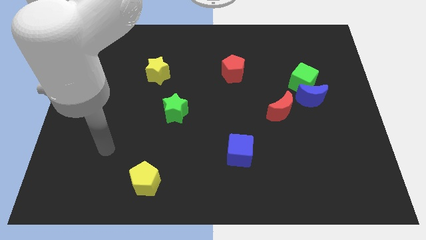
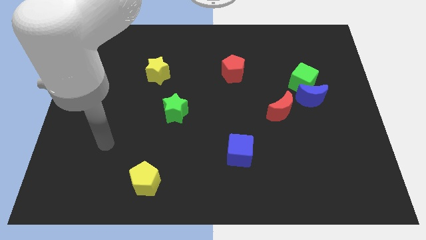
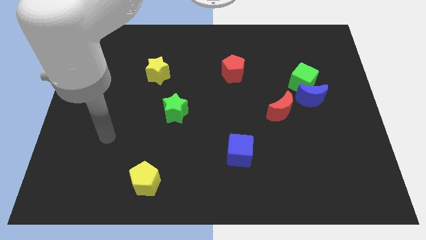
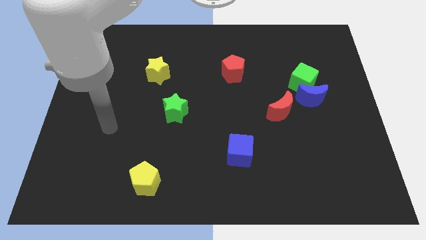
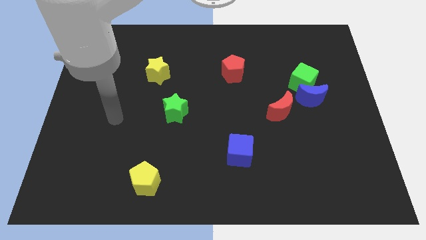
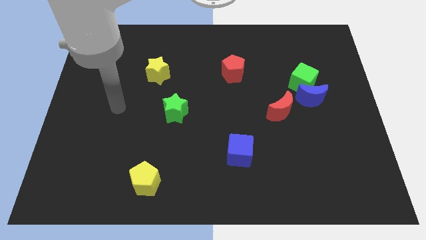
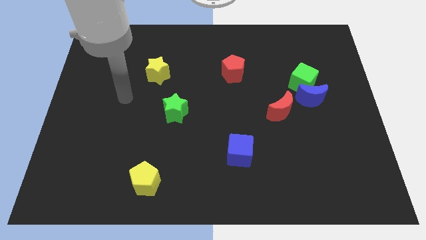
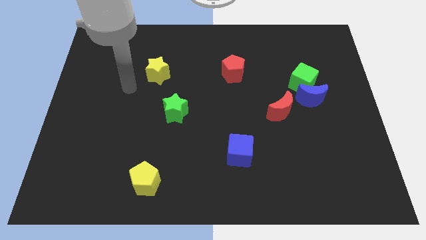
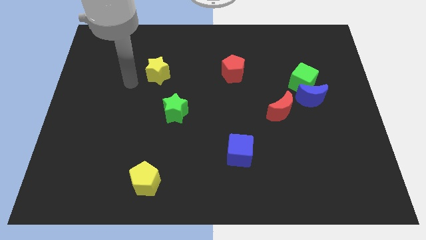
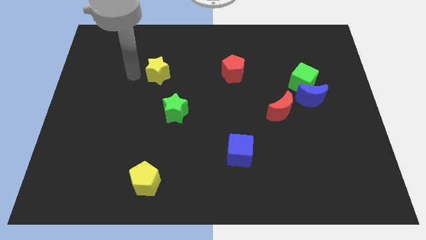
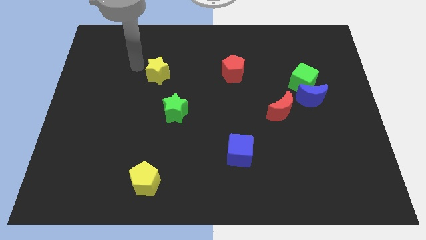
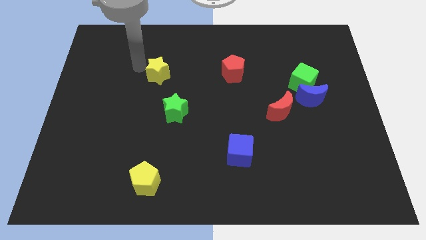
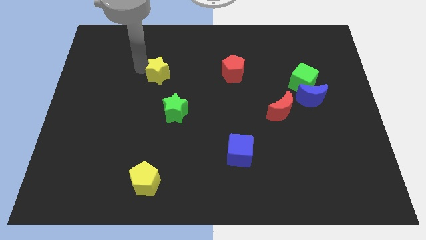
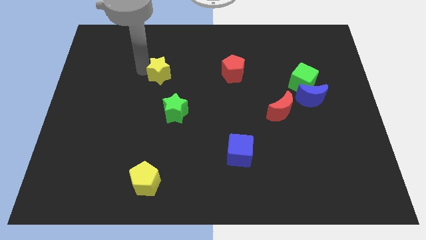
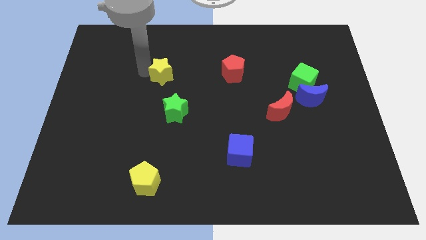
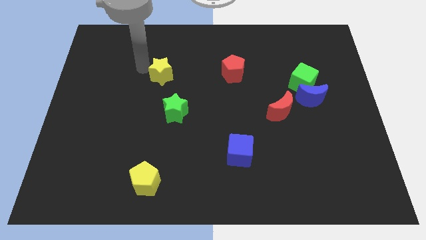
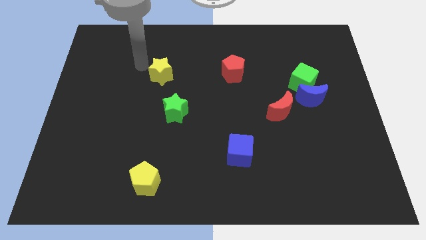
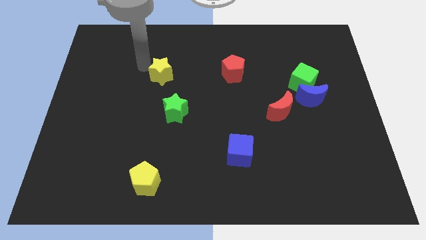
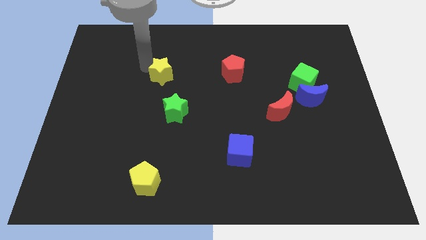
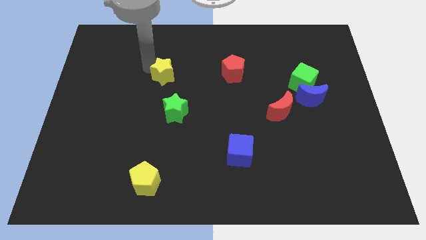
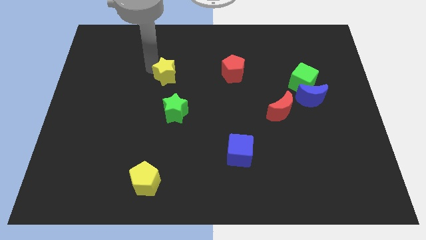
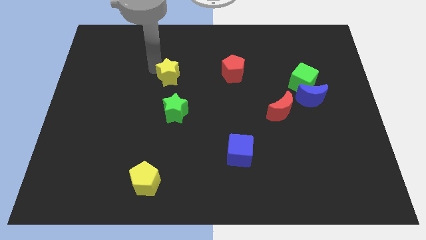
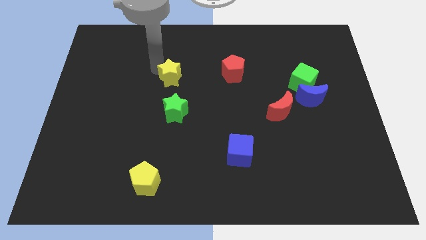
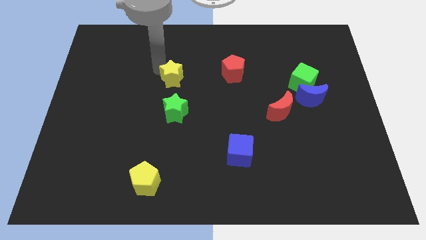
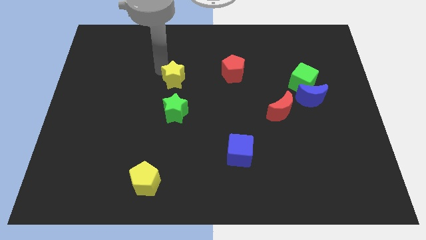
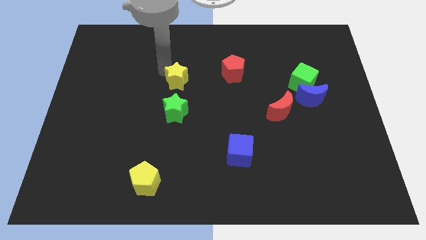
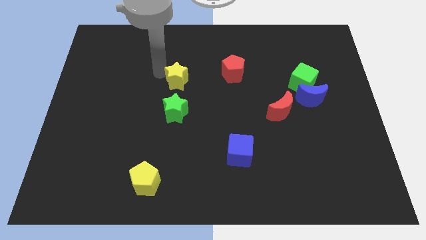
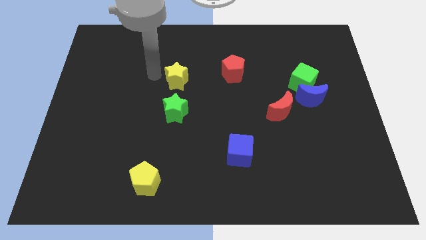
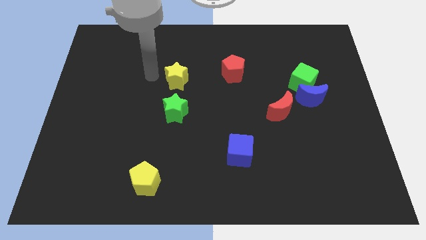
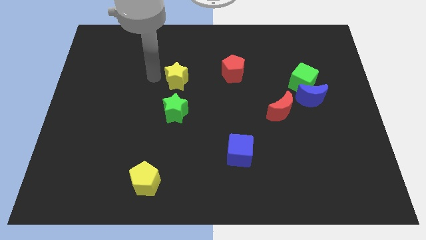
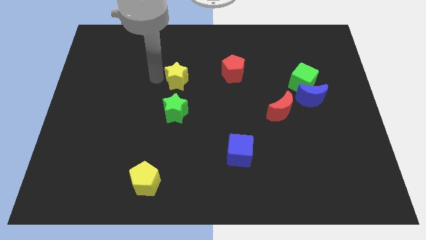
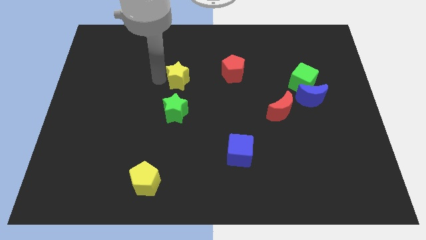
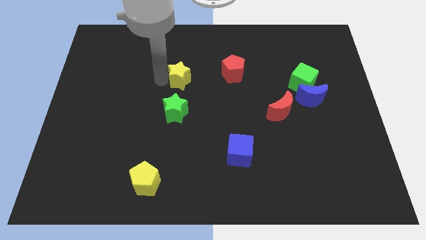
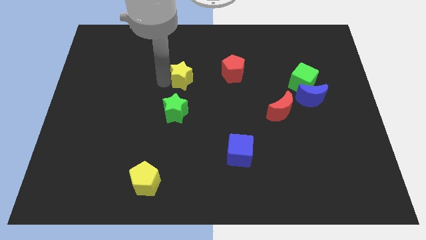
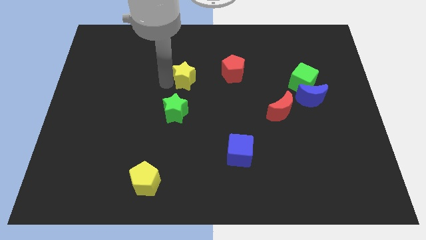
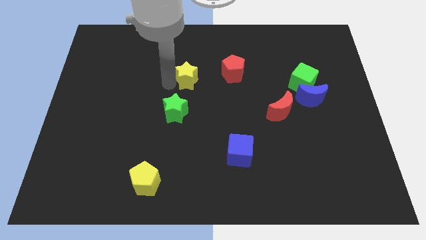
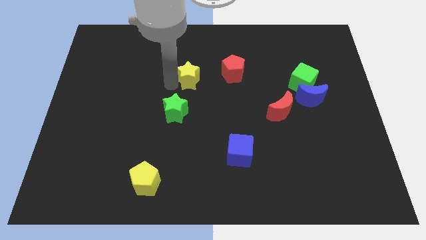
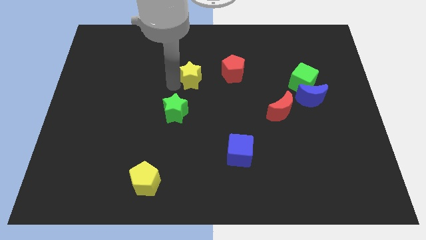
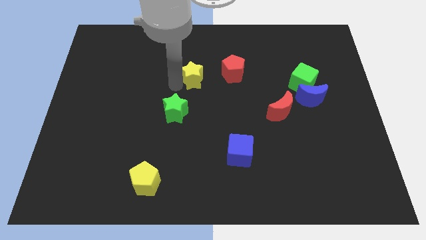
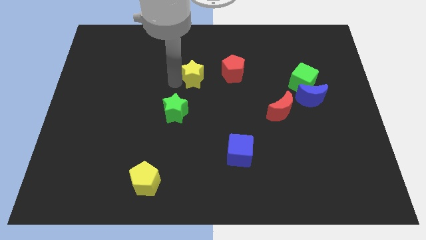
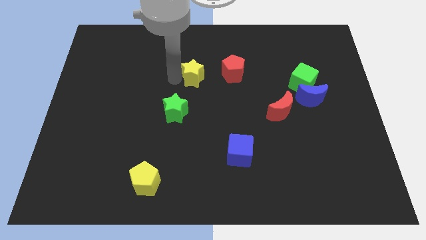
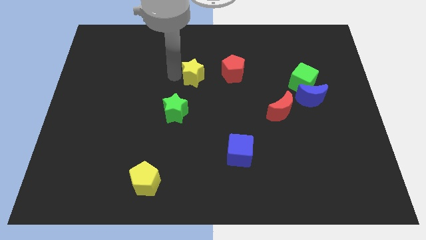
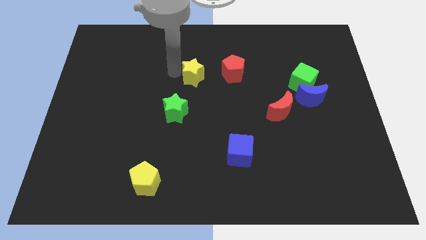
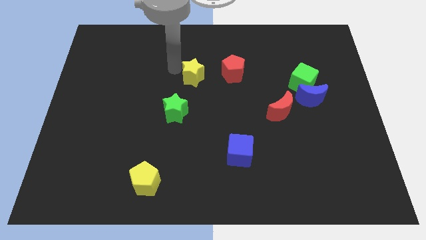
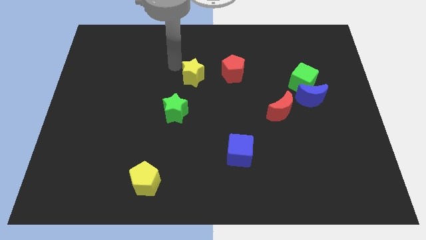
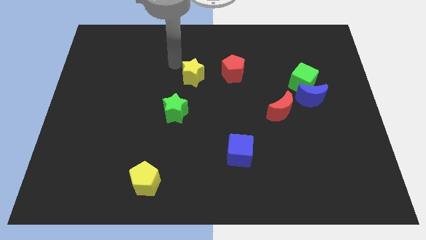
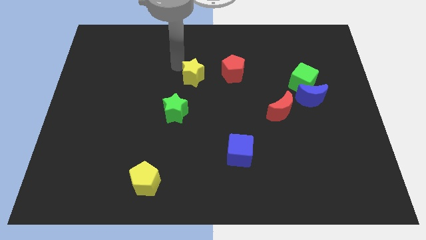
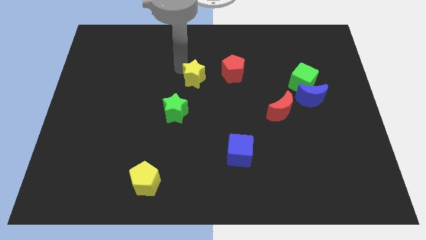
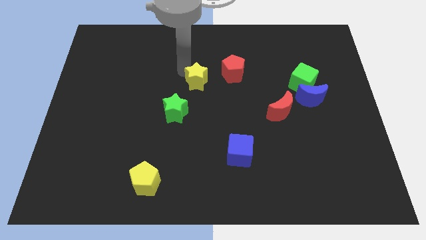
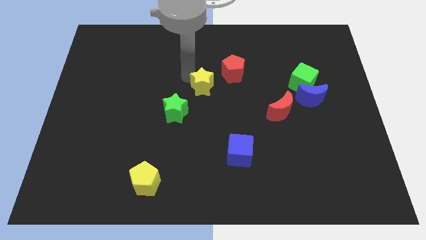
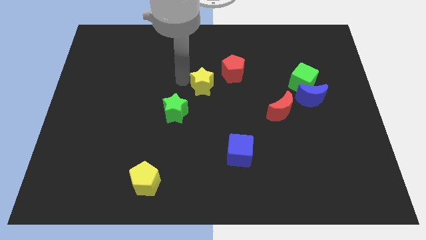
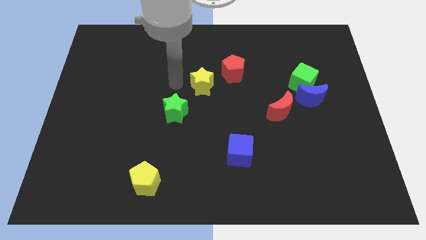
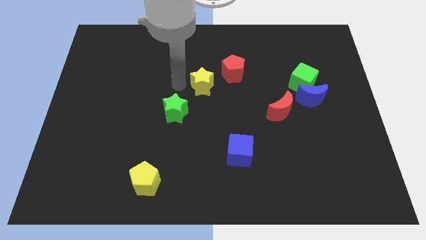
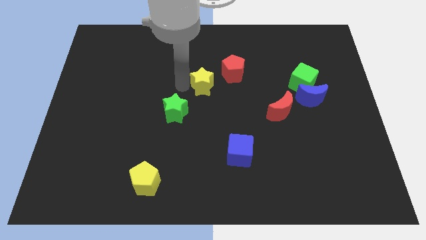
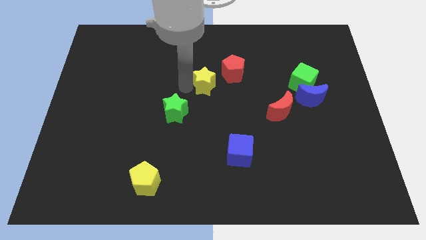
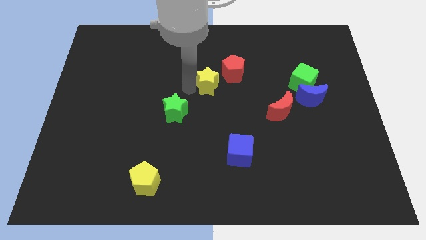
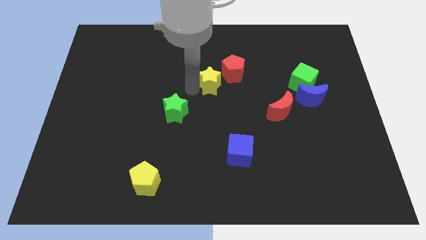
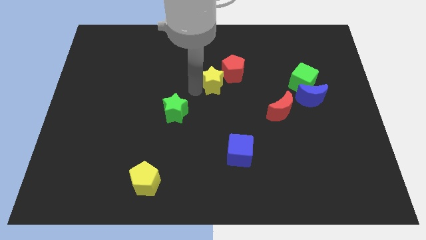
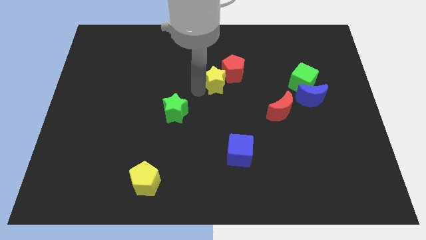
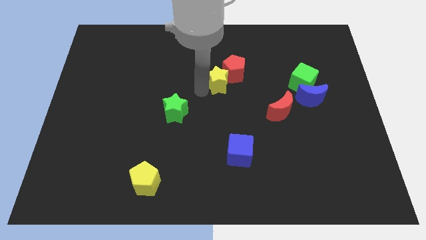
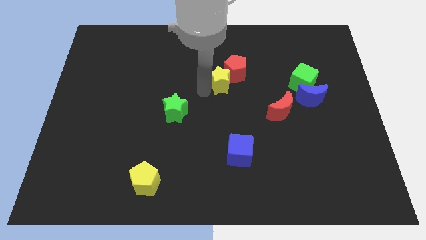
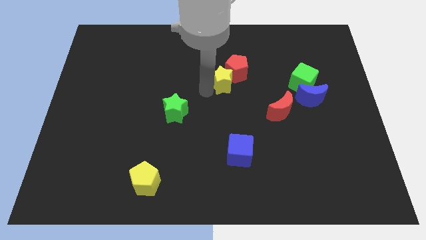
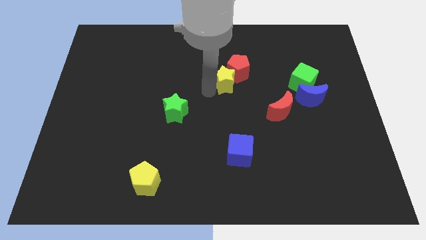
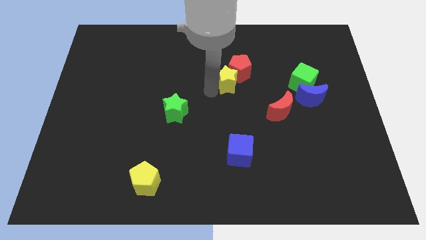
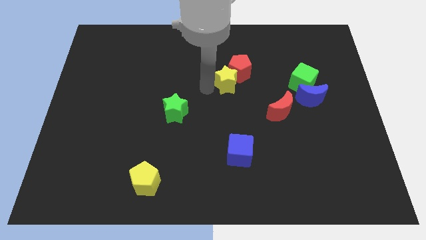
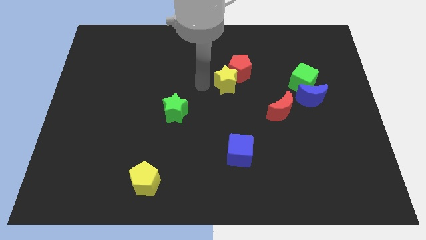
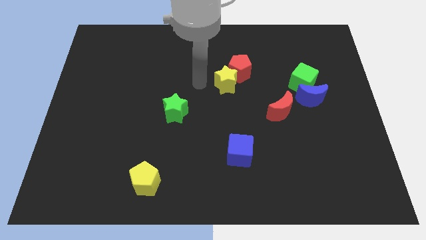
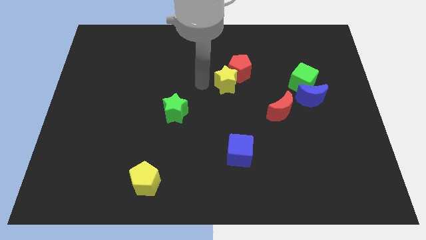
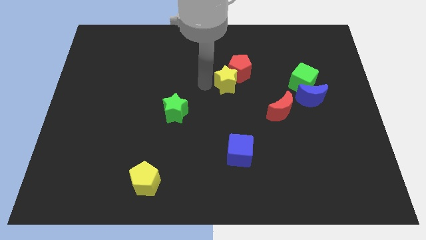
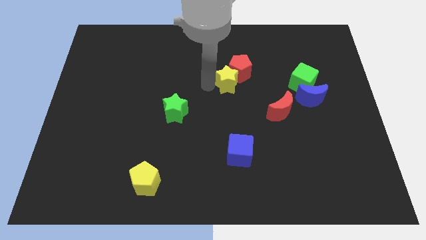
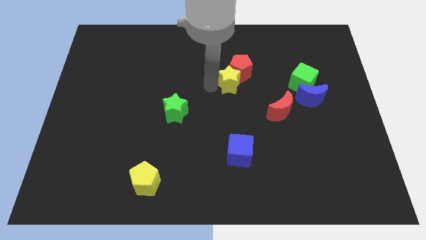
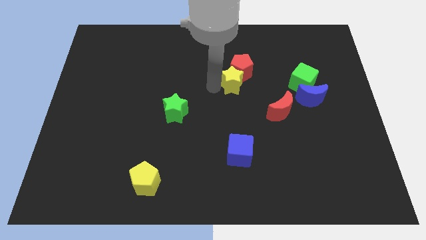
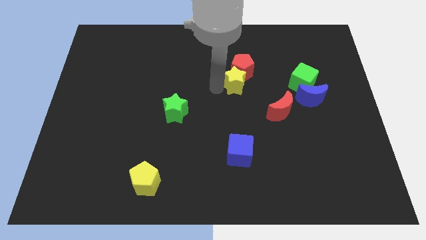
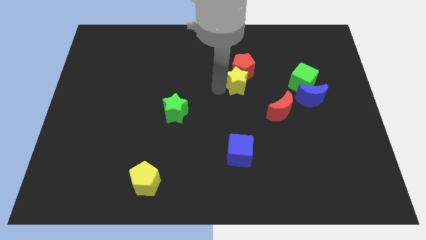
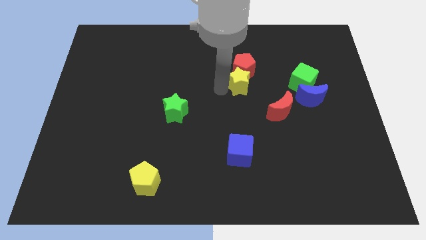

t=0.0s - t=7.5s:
move the yellow star right

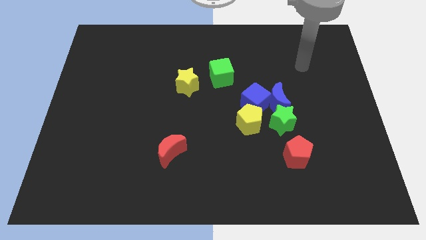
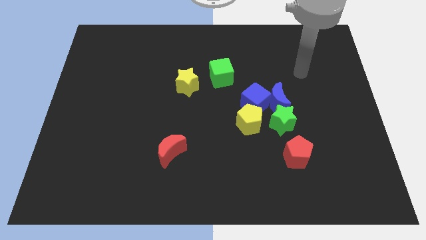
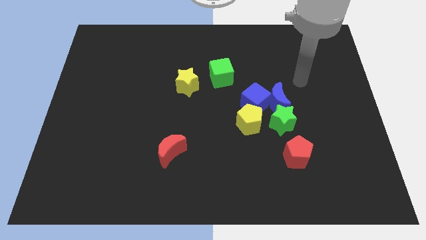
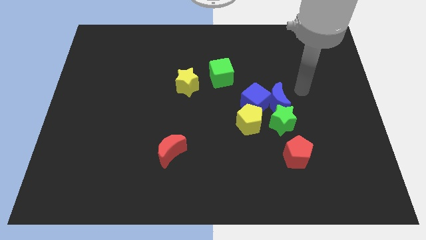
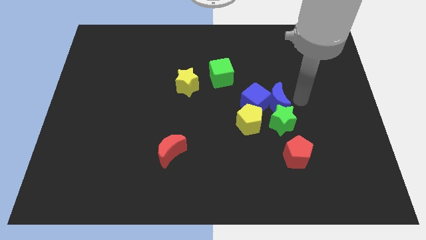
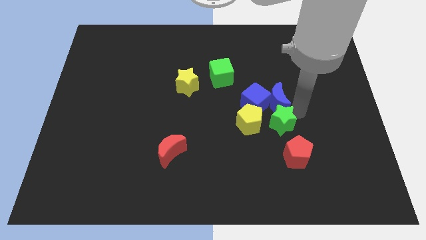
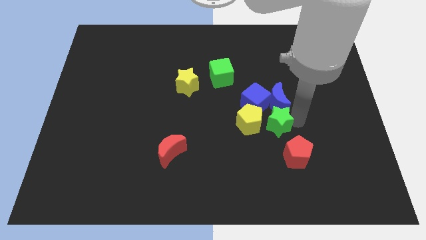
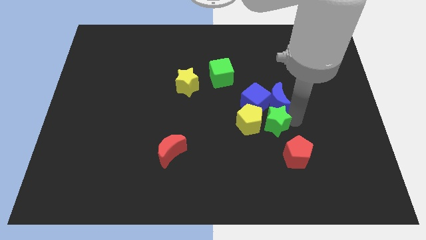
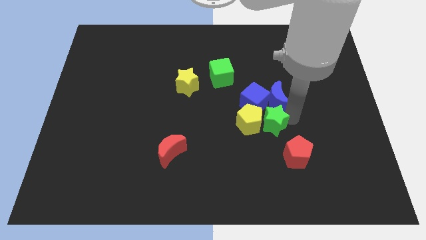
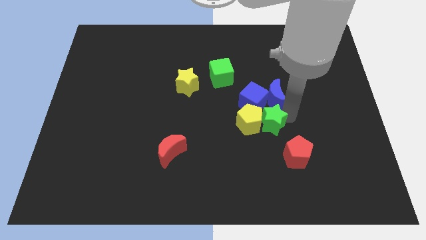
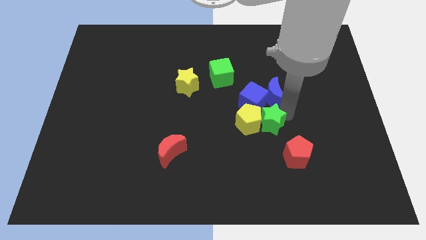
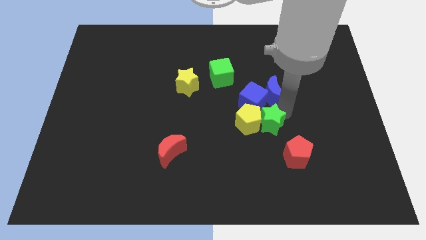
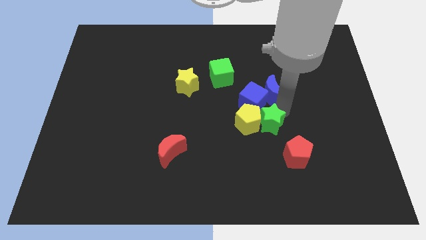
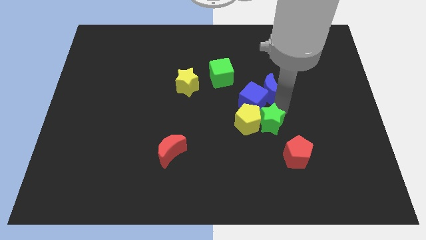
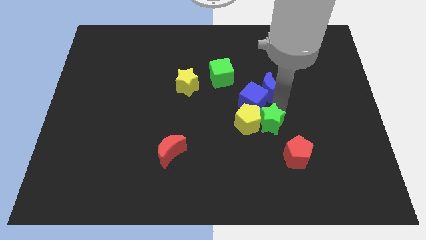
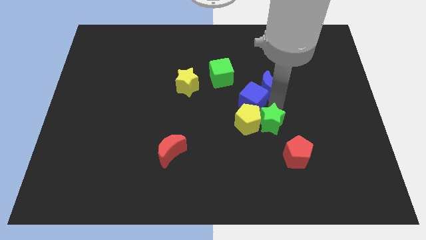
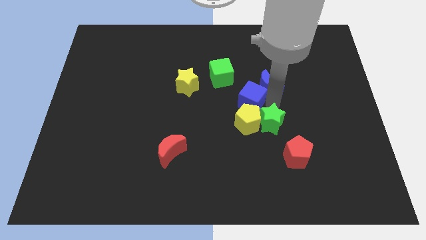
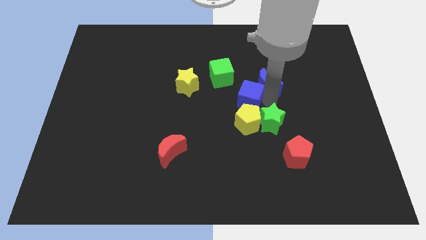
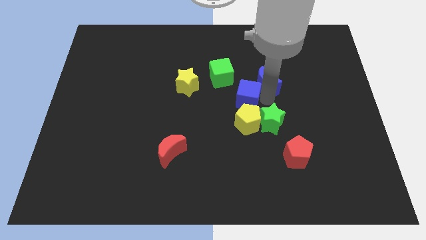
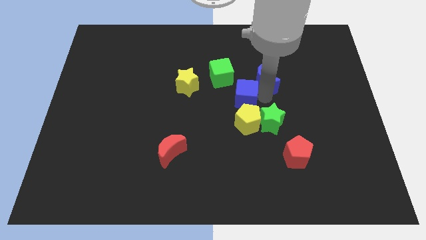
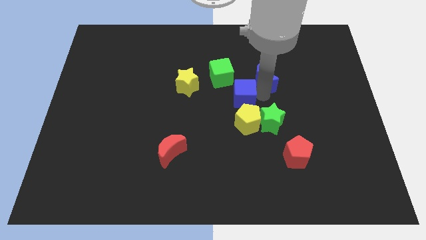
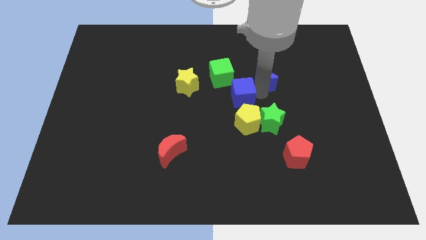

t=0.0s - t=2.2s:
slightly push the blue moon up and then to the left
